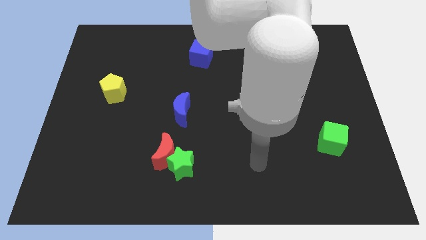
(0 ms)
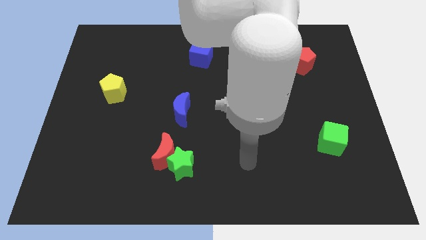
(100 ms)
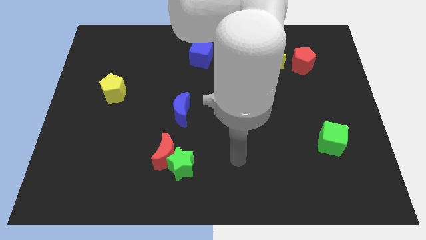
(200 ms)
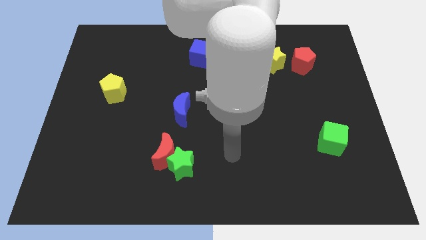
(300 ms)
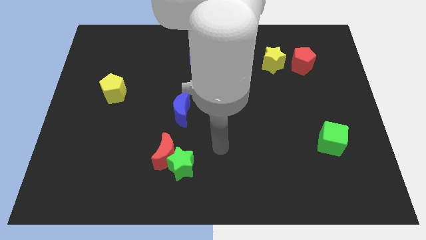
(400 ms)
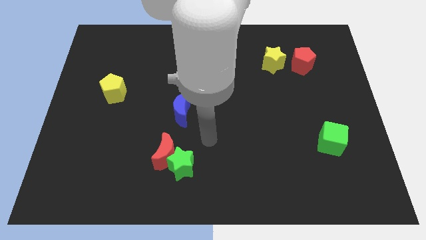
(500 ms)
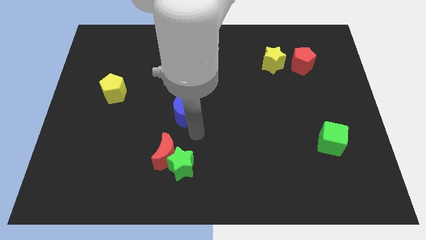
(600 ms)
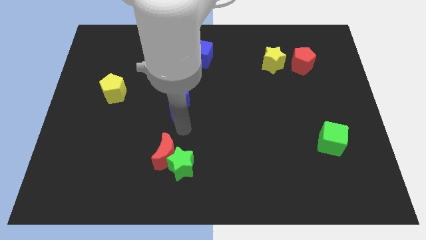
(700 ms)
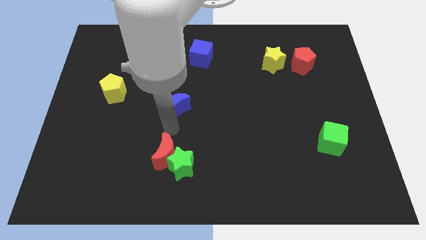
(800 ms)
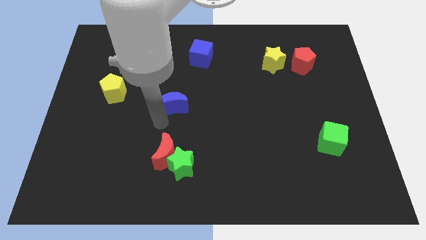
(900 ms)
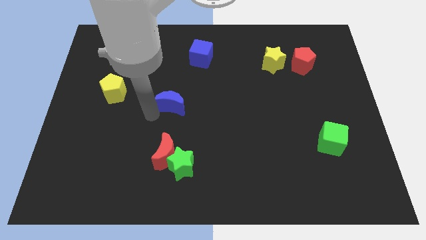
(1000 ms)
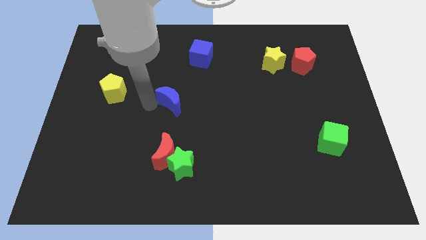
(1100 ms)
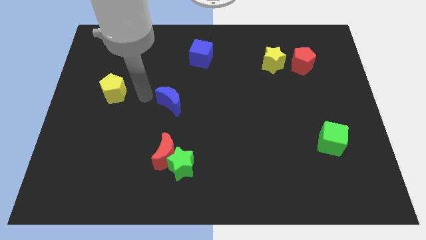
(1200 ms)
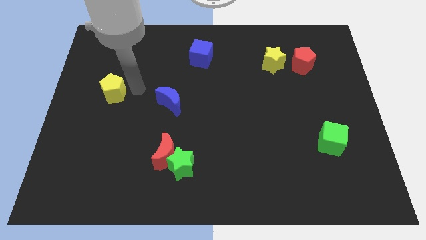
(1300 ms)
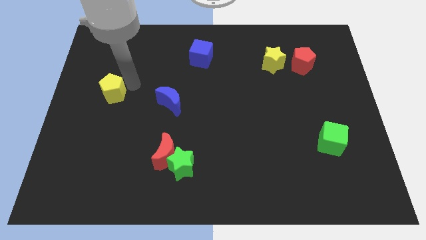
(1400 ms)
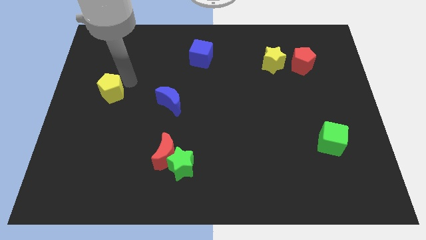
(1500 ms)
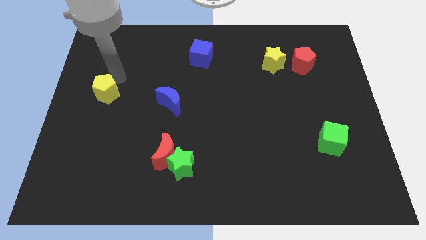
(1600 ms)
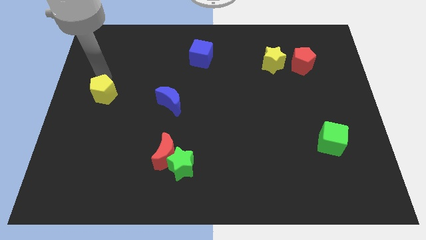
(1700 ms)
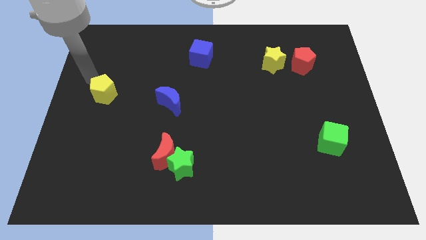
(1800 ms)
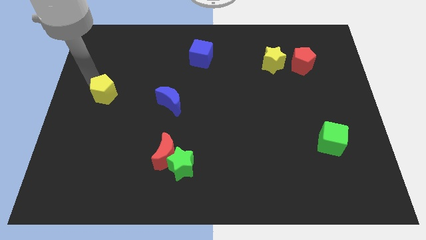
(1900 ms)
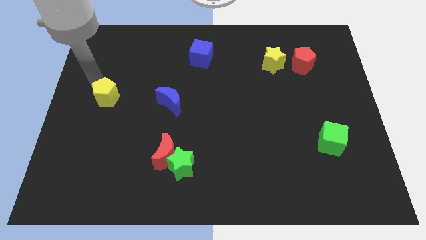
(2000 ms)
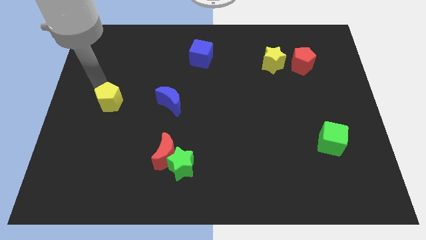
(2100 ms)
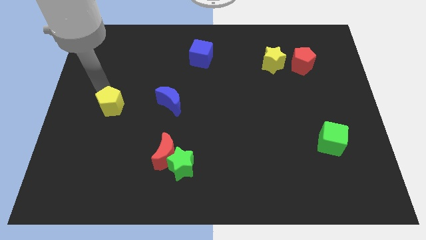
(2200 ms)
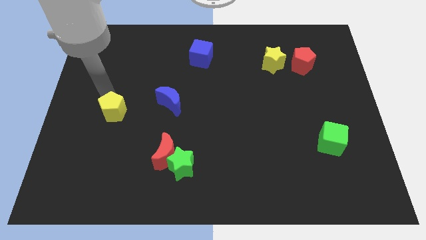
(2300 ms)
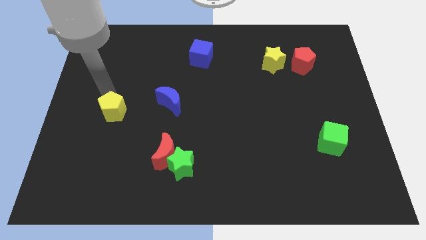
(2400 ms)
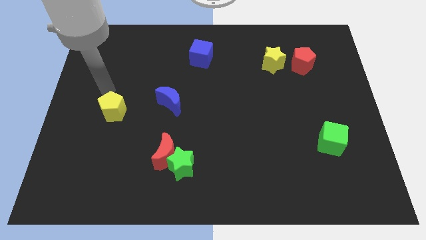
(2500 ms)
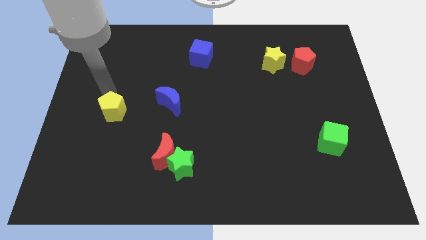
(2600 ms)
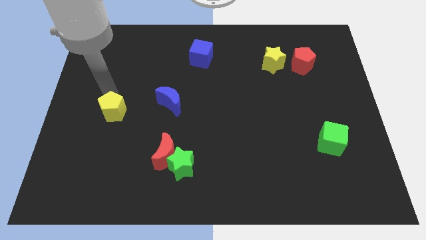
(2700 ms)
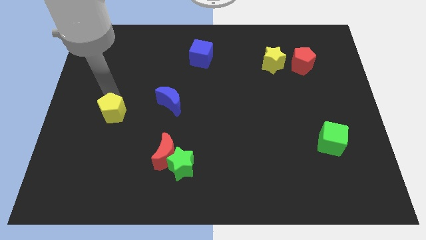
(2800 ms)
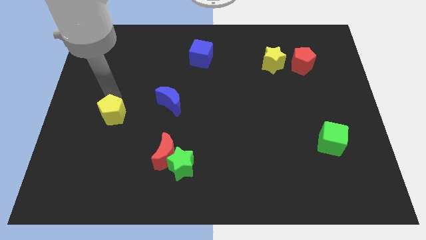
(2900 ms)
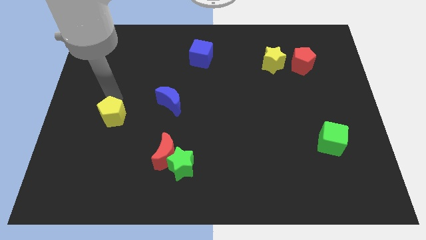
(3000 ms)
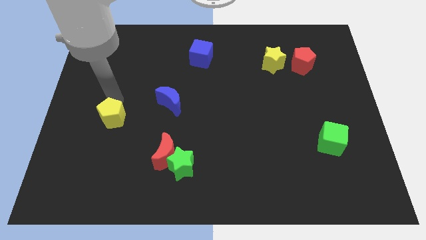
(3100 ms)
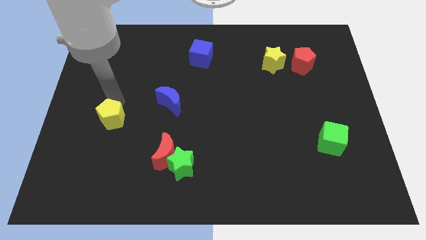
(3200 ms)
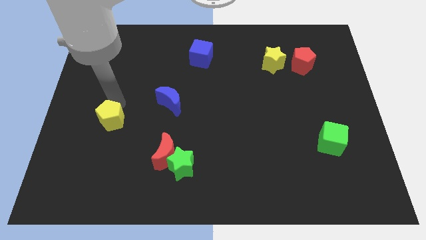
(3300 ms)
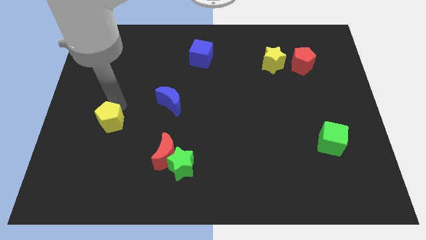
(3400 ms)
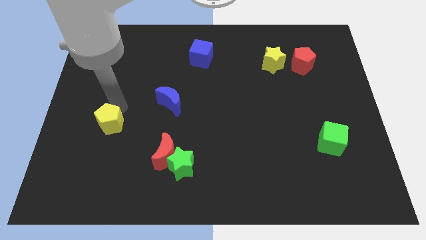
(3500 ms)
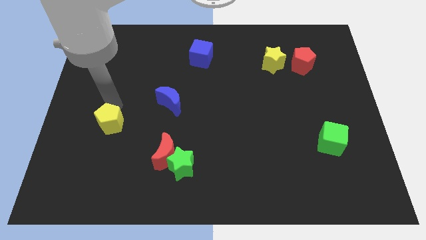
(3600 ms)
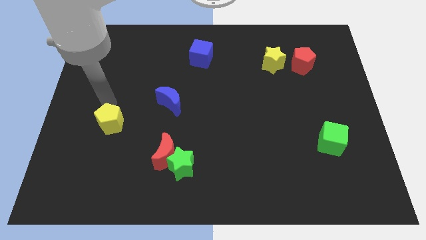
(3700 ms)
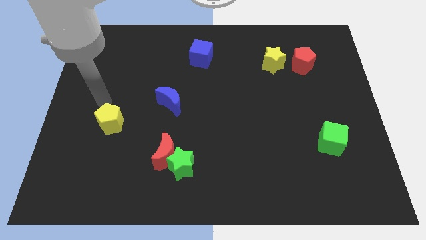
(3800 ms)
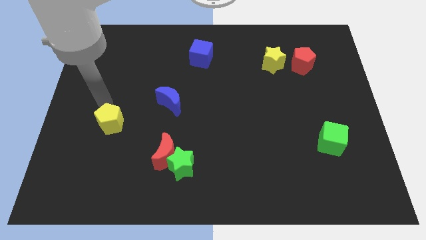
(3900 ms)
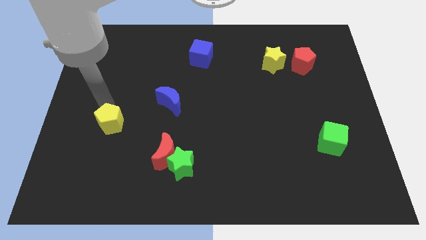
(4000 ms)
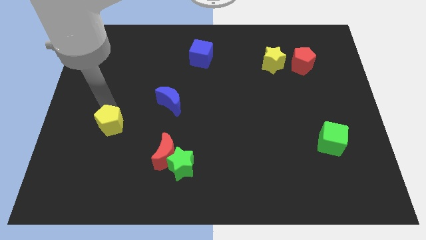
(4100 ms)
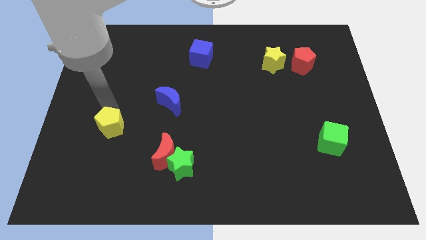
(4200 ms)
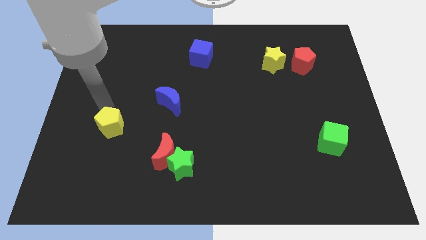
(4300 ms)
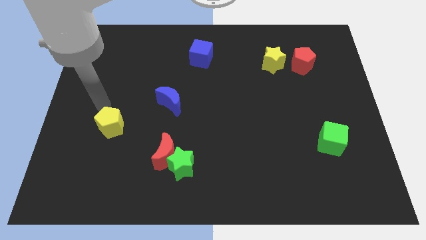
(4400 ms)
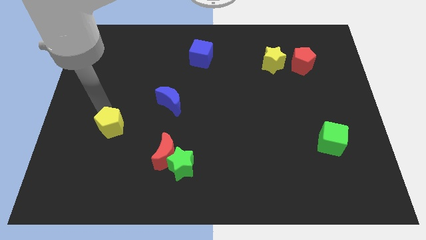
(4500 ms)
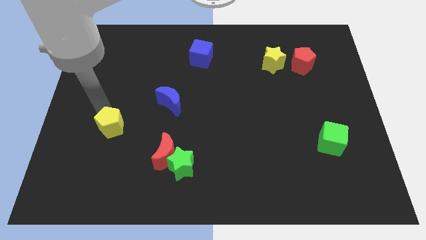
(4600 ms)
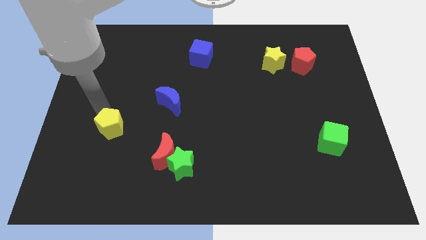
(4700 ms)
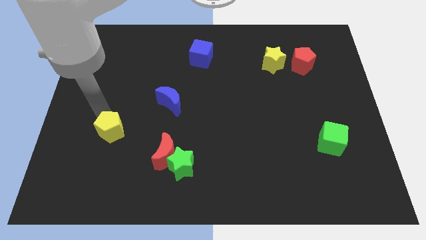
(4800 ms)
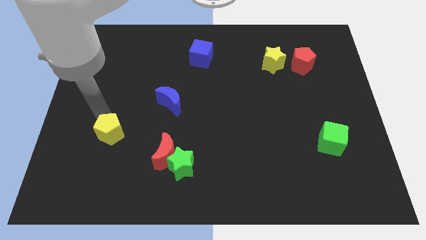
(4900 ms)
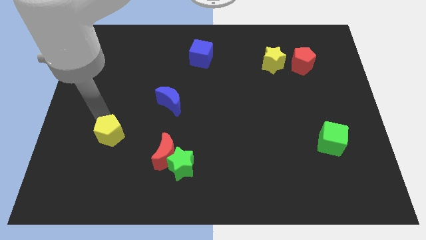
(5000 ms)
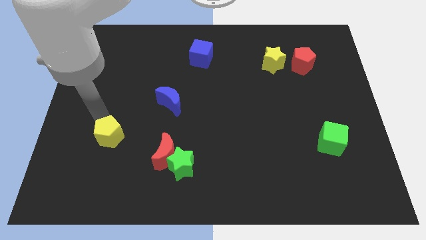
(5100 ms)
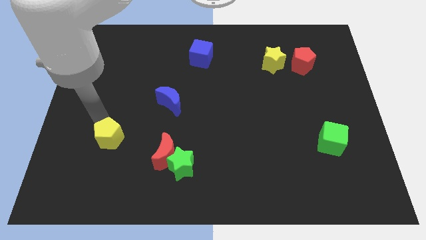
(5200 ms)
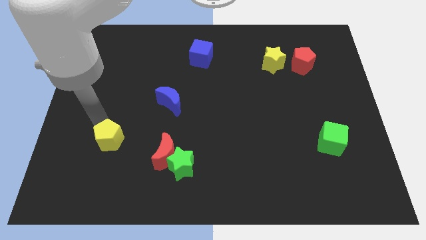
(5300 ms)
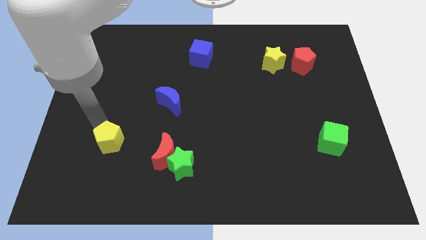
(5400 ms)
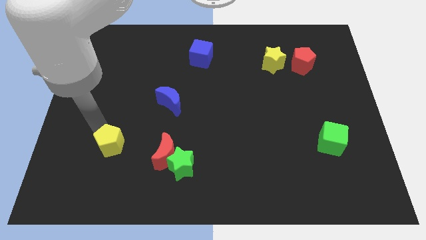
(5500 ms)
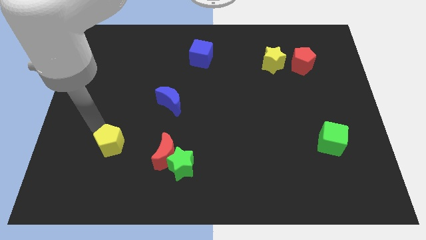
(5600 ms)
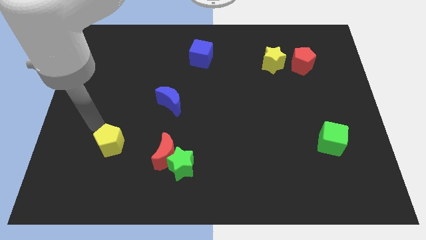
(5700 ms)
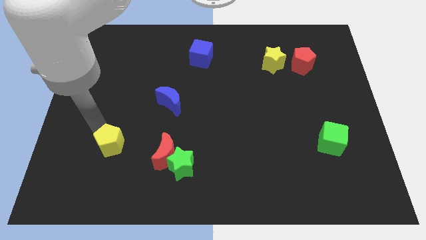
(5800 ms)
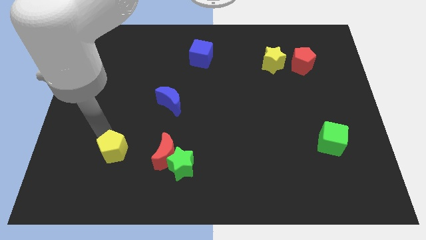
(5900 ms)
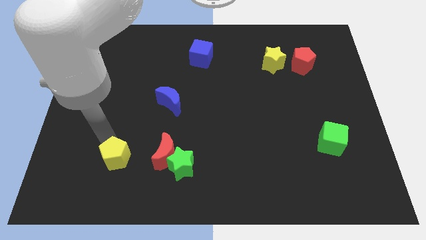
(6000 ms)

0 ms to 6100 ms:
put the yellow pentagon to the left of the green star
